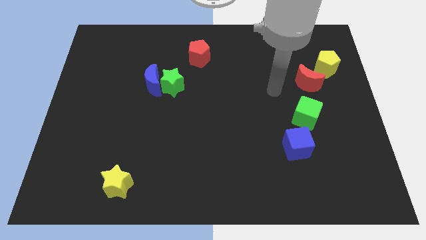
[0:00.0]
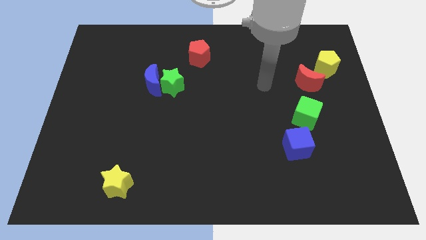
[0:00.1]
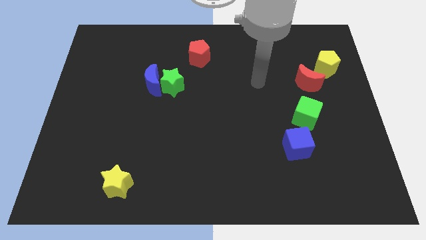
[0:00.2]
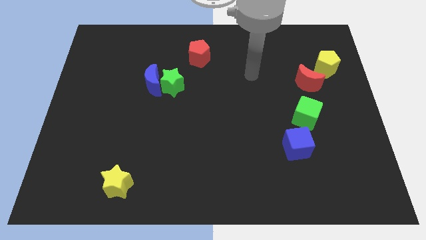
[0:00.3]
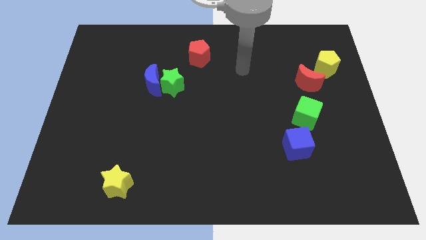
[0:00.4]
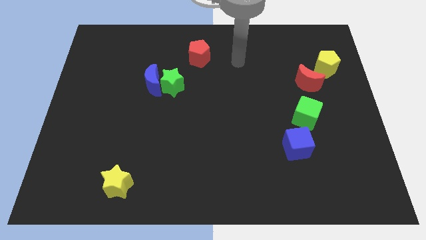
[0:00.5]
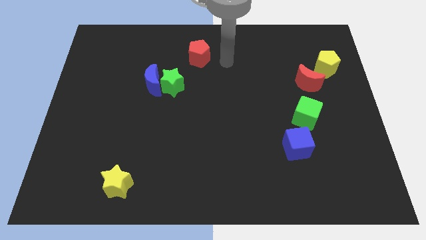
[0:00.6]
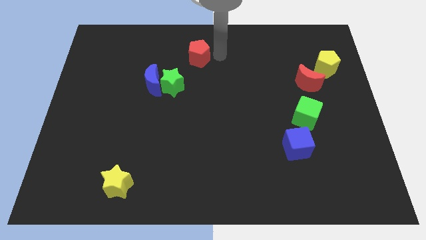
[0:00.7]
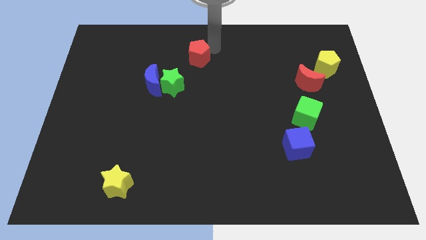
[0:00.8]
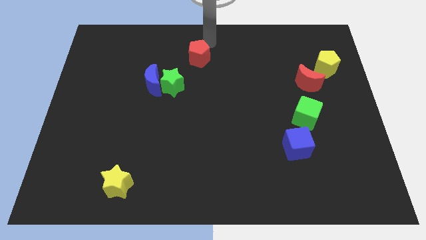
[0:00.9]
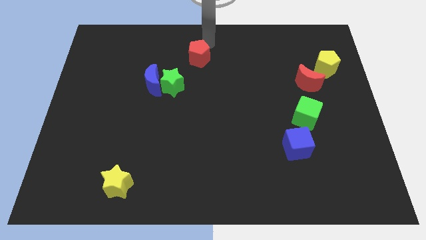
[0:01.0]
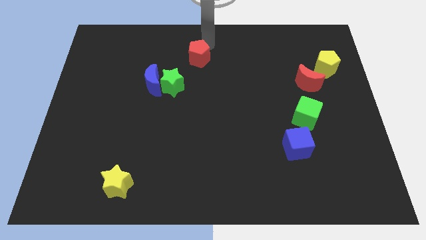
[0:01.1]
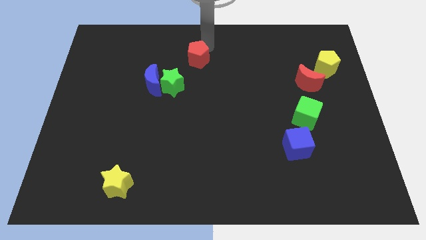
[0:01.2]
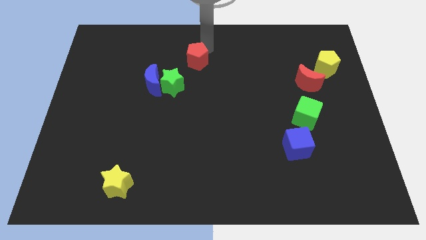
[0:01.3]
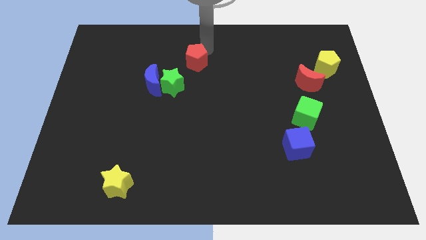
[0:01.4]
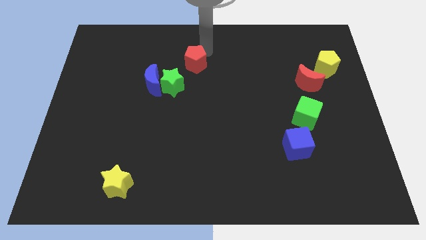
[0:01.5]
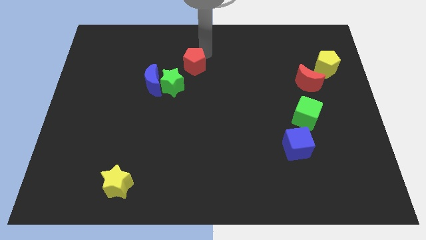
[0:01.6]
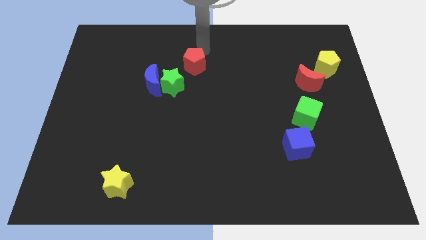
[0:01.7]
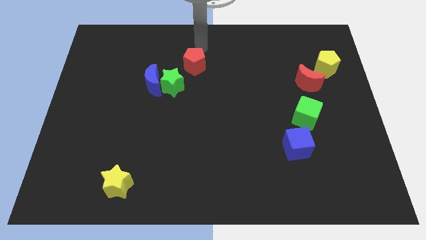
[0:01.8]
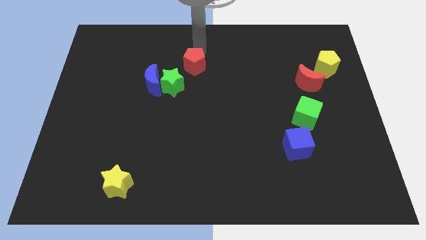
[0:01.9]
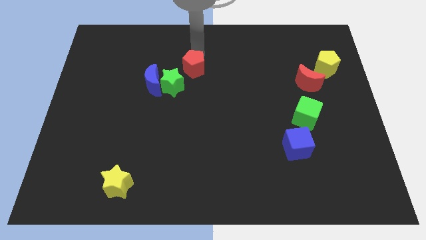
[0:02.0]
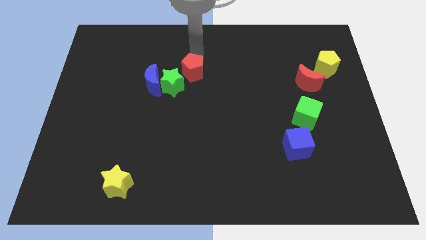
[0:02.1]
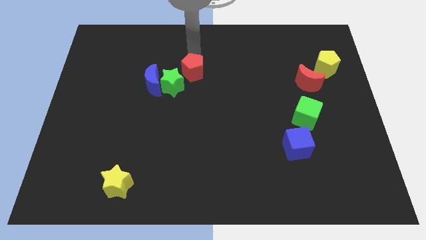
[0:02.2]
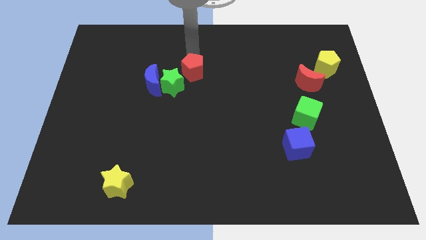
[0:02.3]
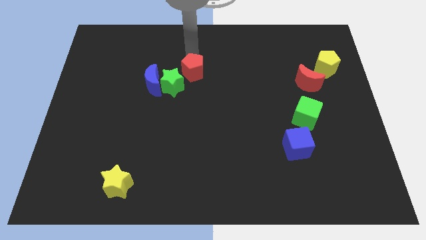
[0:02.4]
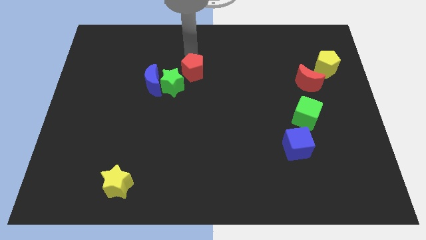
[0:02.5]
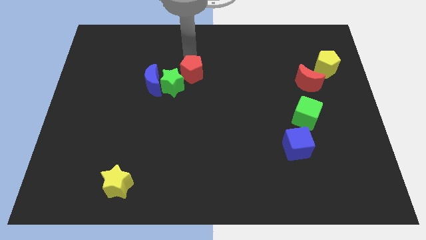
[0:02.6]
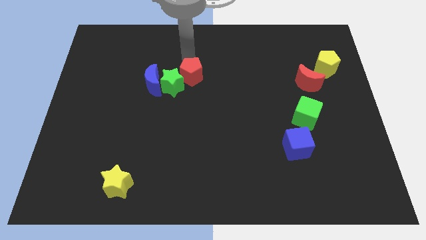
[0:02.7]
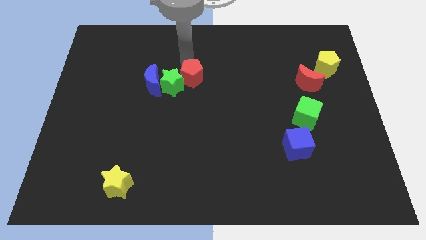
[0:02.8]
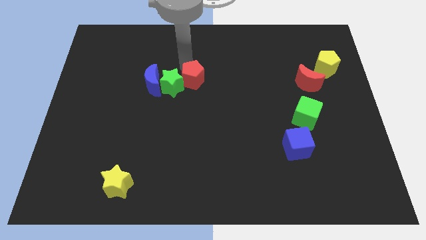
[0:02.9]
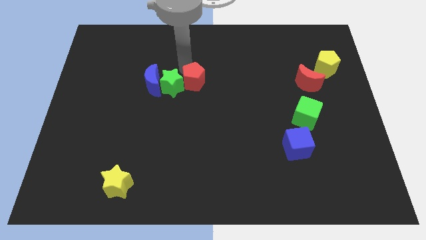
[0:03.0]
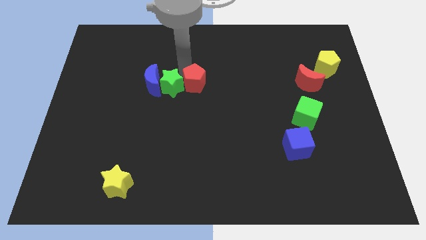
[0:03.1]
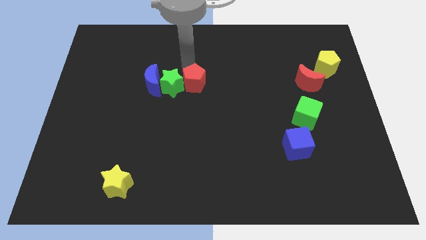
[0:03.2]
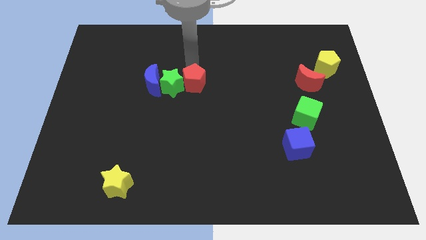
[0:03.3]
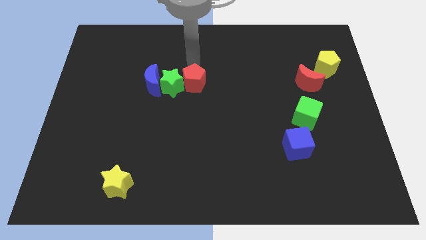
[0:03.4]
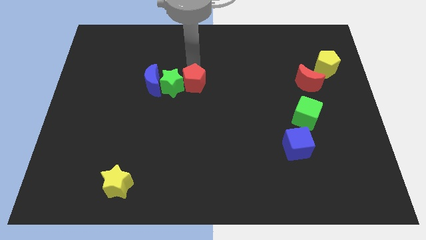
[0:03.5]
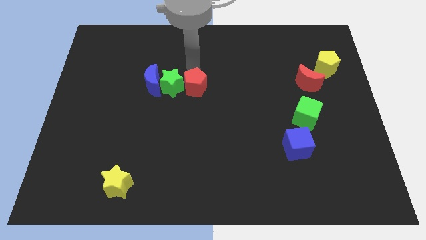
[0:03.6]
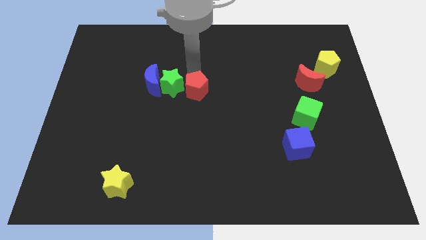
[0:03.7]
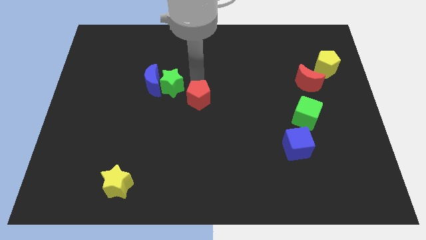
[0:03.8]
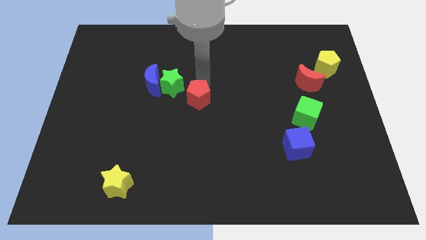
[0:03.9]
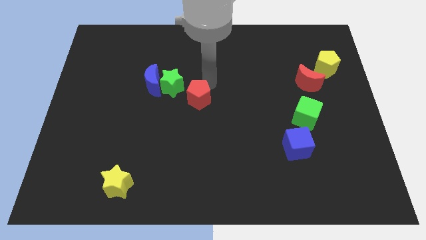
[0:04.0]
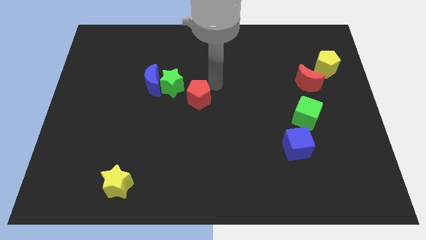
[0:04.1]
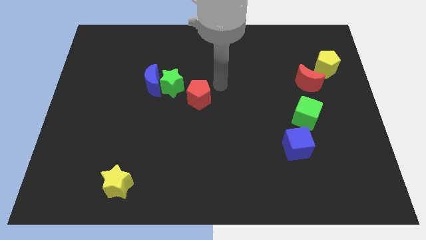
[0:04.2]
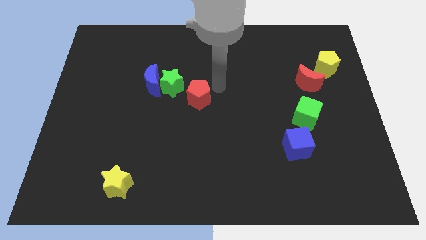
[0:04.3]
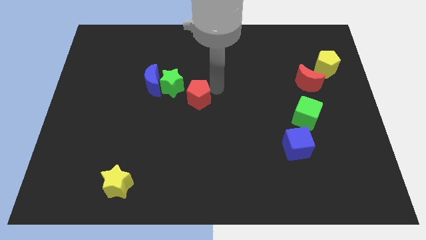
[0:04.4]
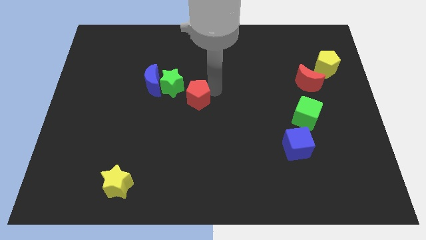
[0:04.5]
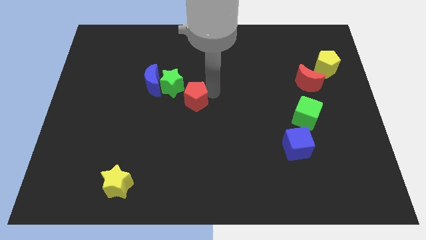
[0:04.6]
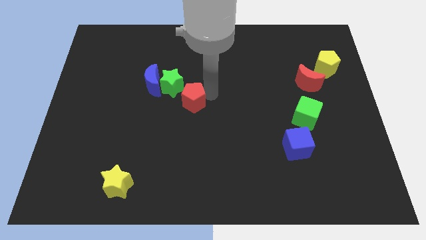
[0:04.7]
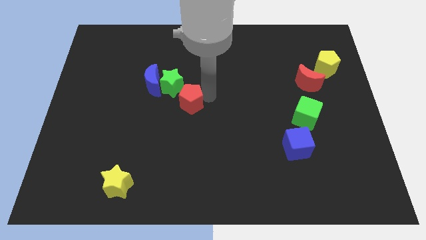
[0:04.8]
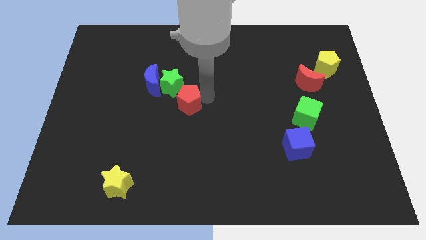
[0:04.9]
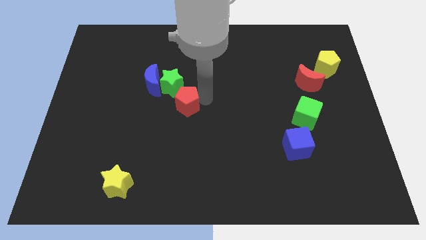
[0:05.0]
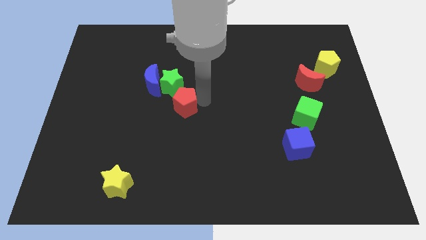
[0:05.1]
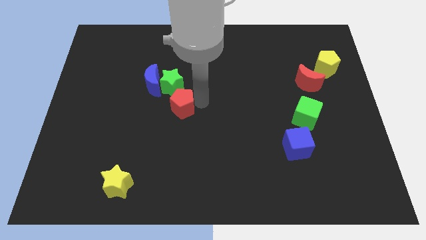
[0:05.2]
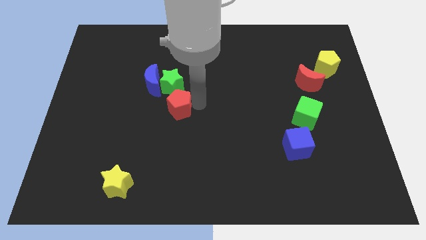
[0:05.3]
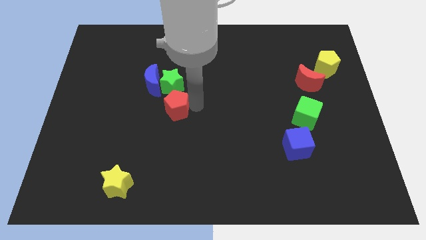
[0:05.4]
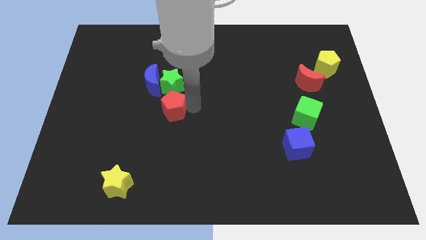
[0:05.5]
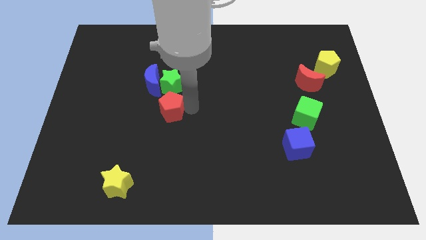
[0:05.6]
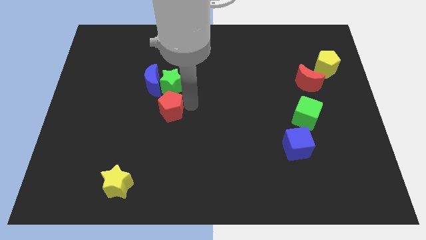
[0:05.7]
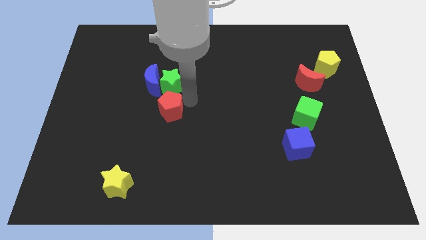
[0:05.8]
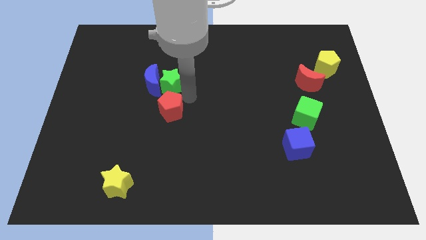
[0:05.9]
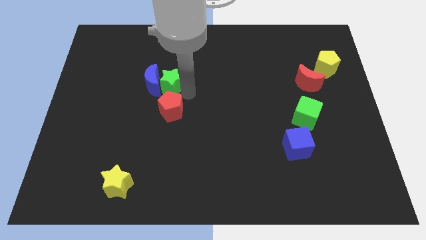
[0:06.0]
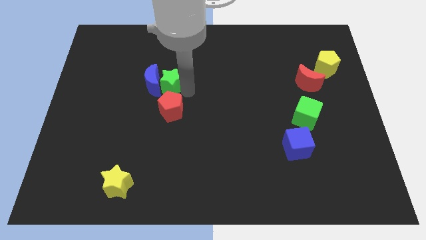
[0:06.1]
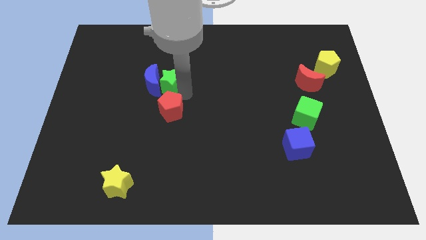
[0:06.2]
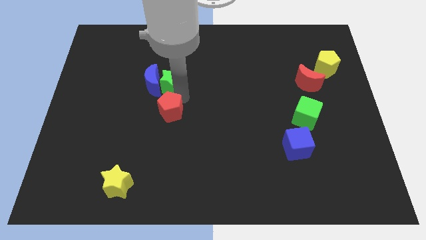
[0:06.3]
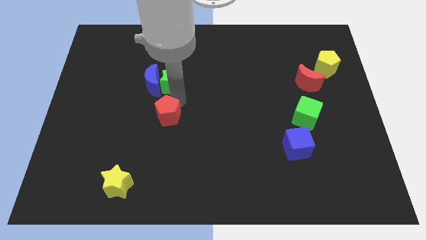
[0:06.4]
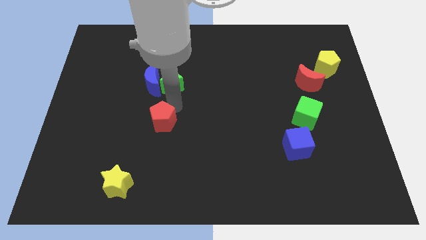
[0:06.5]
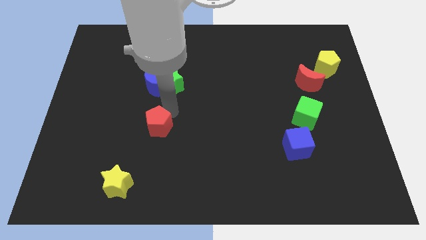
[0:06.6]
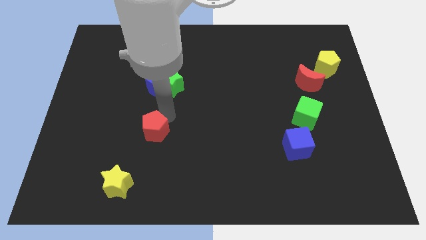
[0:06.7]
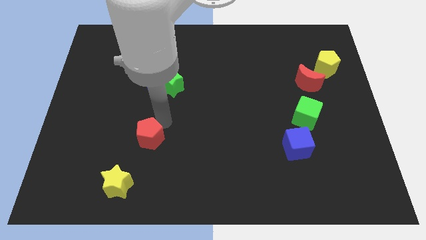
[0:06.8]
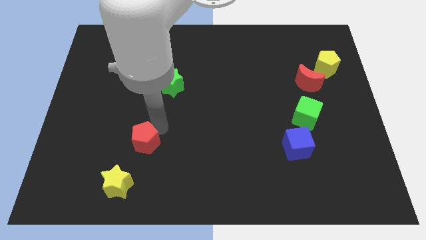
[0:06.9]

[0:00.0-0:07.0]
put the red pentagon to the top of the yellow star

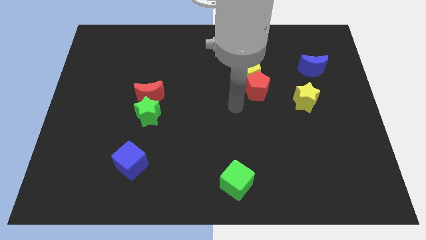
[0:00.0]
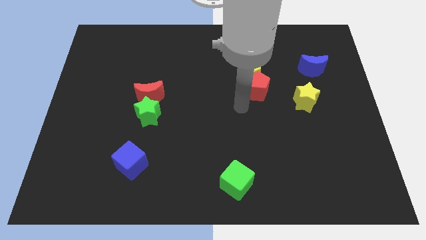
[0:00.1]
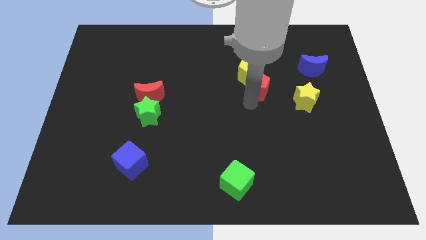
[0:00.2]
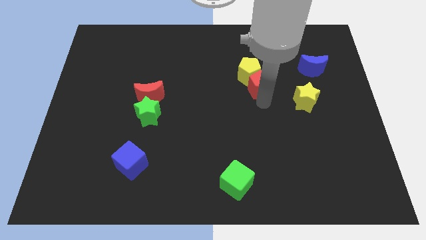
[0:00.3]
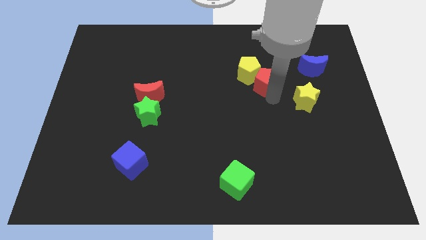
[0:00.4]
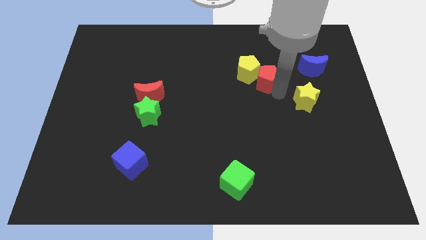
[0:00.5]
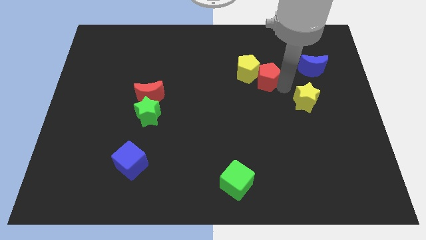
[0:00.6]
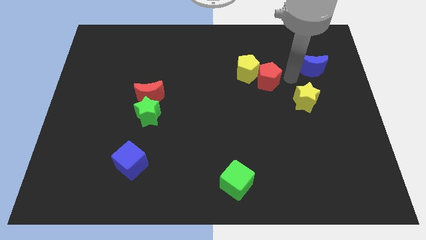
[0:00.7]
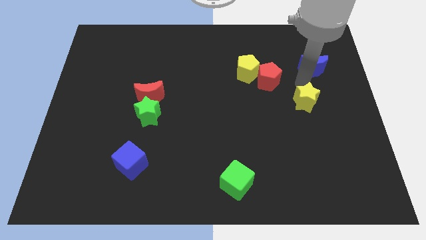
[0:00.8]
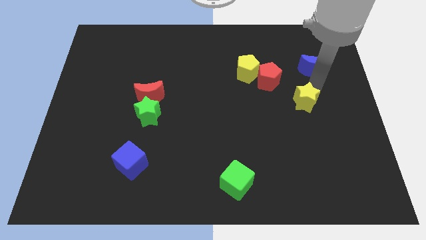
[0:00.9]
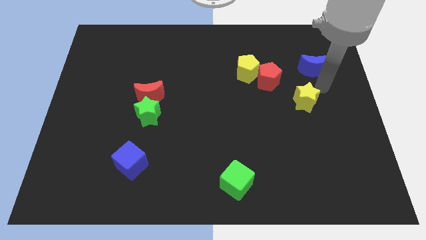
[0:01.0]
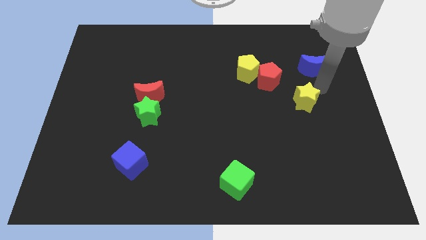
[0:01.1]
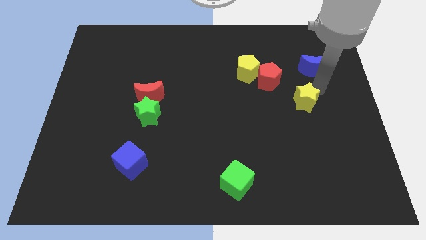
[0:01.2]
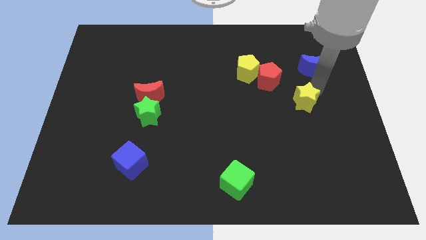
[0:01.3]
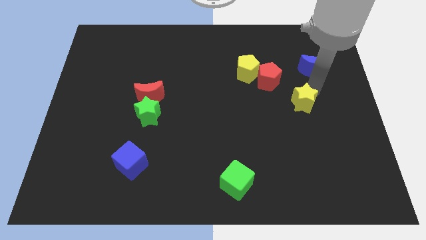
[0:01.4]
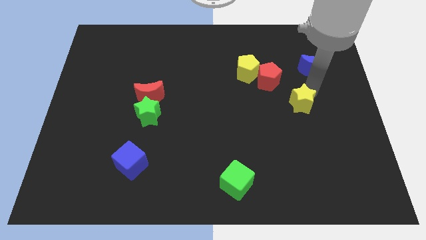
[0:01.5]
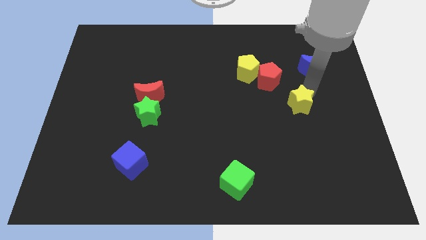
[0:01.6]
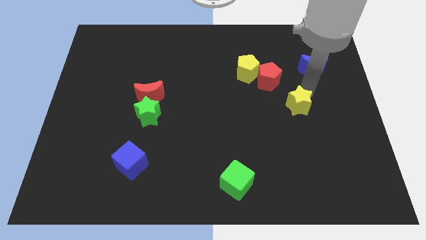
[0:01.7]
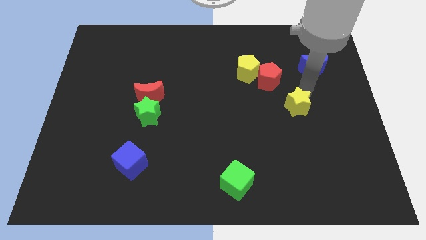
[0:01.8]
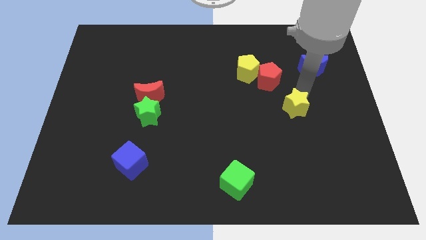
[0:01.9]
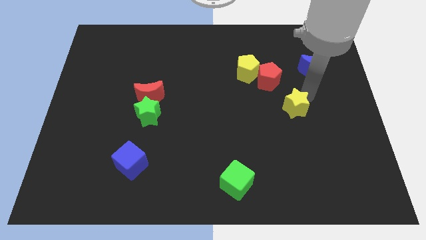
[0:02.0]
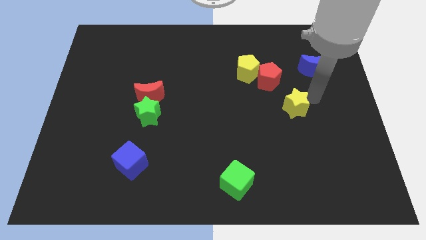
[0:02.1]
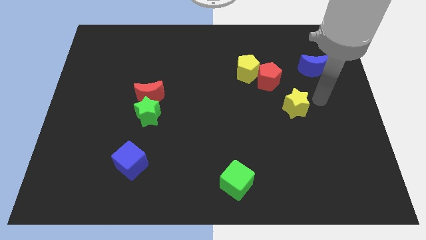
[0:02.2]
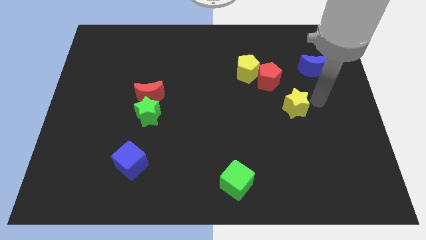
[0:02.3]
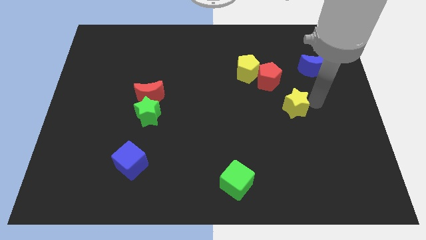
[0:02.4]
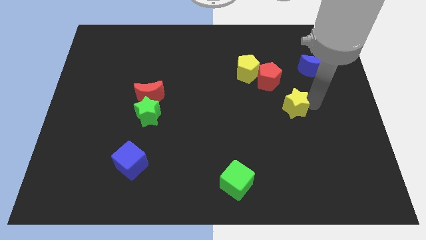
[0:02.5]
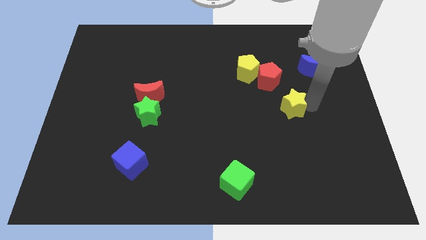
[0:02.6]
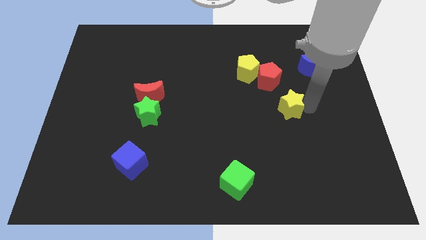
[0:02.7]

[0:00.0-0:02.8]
slide the yellow star to the bottom side of the red pentagon
